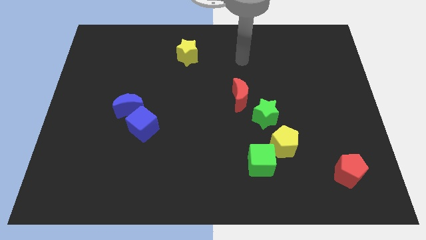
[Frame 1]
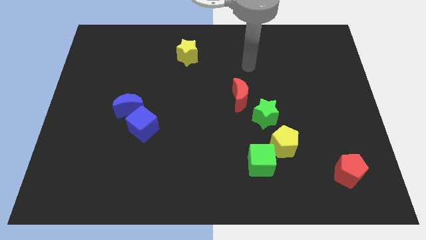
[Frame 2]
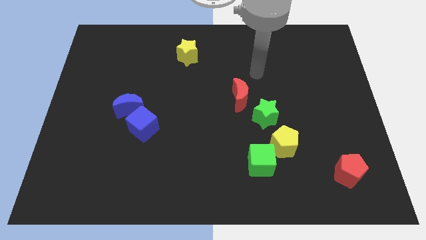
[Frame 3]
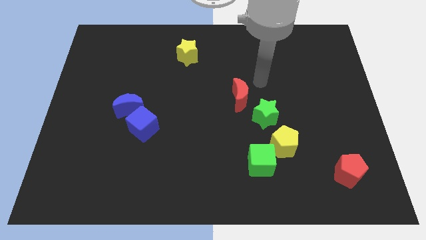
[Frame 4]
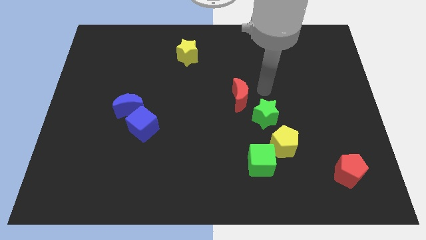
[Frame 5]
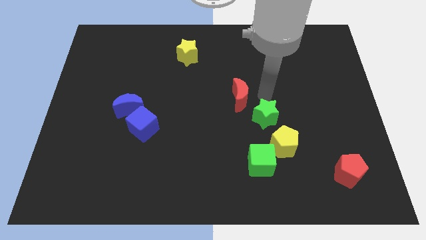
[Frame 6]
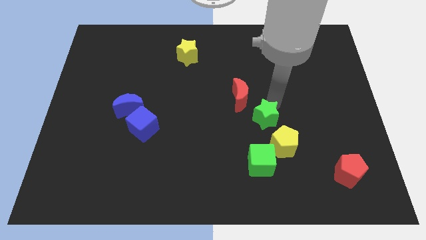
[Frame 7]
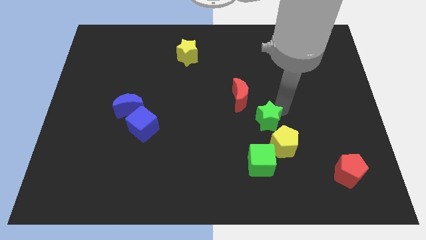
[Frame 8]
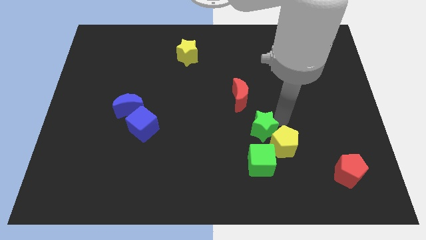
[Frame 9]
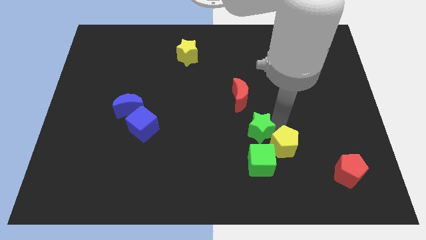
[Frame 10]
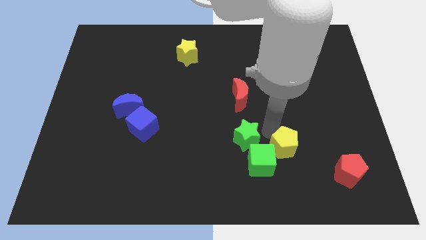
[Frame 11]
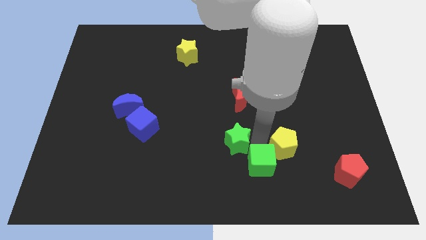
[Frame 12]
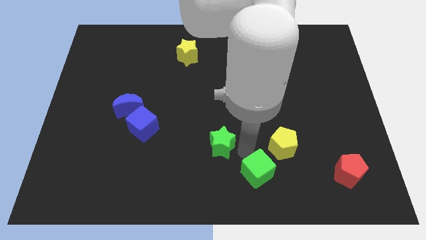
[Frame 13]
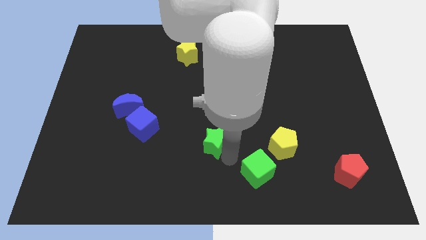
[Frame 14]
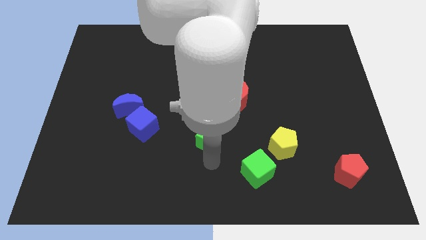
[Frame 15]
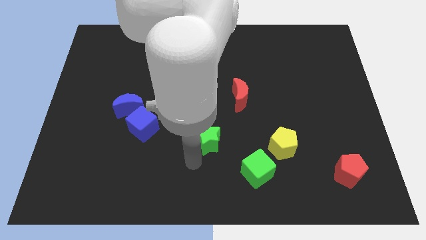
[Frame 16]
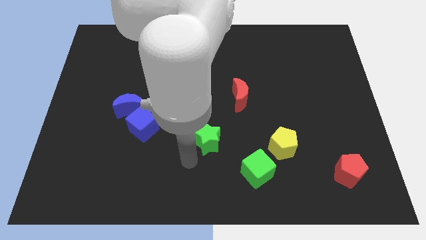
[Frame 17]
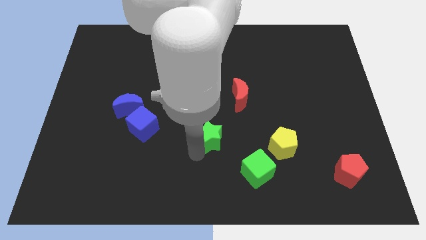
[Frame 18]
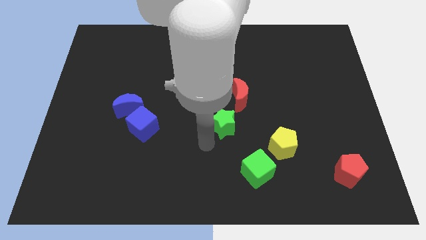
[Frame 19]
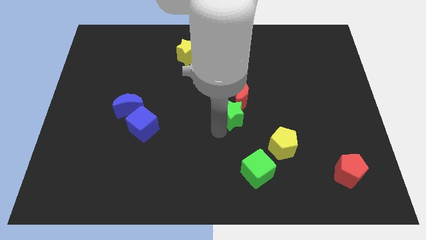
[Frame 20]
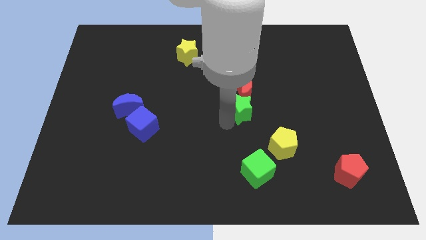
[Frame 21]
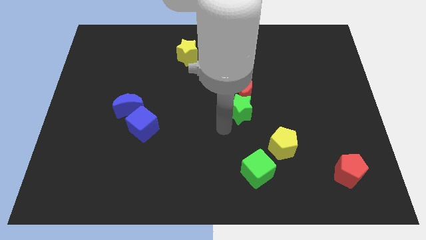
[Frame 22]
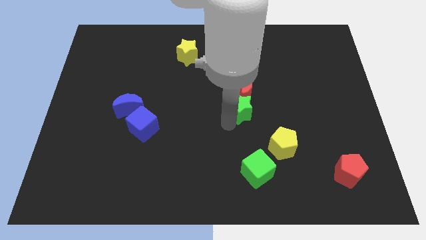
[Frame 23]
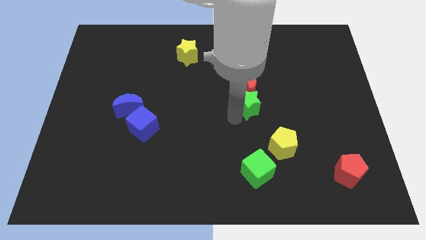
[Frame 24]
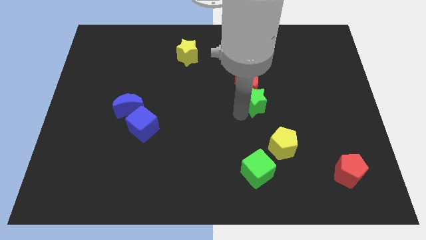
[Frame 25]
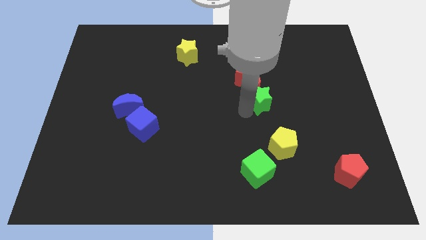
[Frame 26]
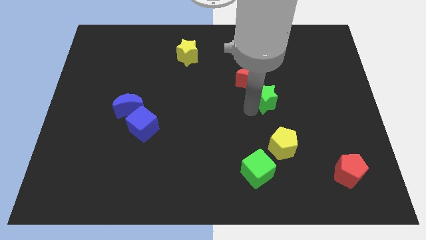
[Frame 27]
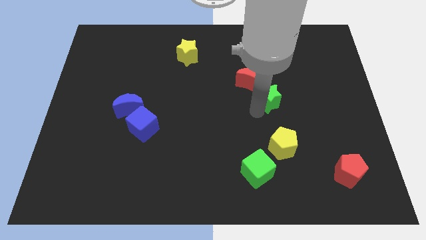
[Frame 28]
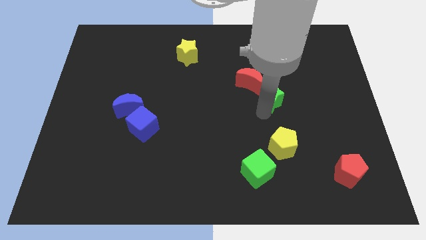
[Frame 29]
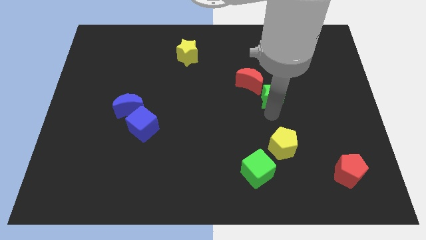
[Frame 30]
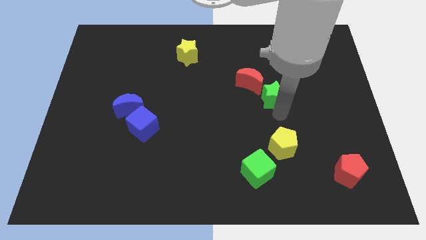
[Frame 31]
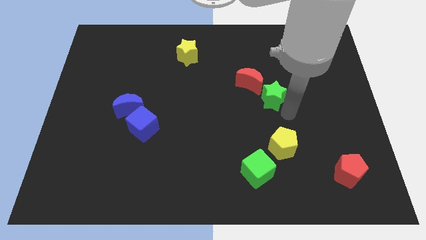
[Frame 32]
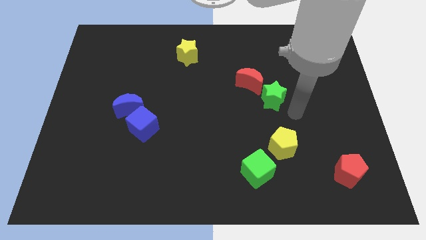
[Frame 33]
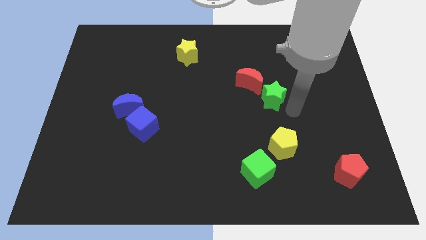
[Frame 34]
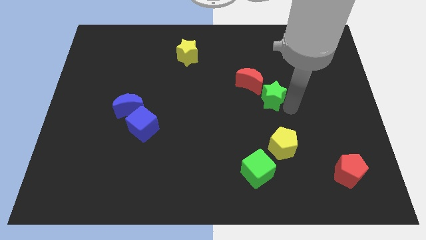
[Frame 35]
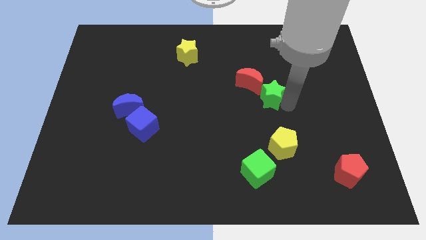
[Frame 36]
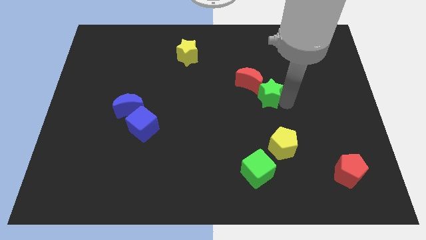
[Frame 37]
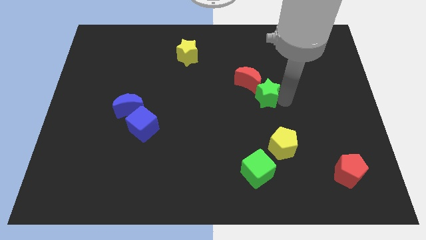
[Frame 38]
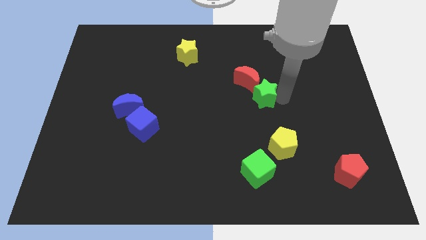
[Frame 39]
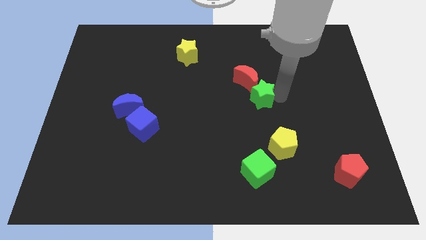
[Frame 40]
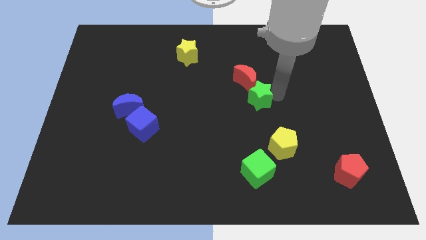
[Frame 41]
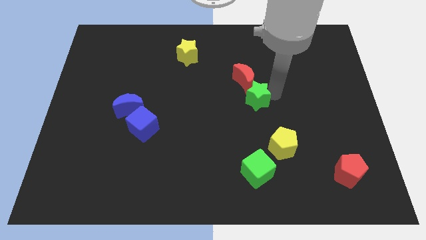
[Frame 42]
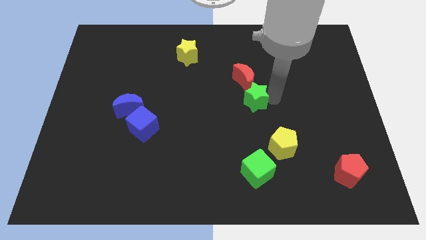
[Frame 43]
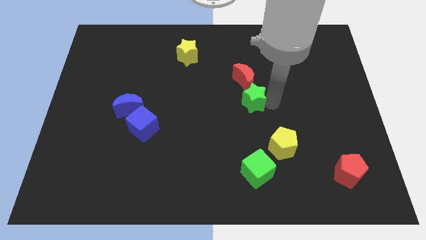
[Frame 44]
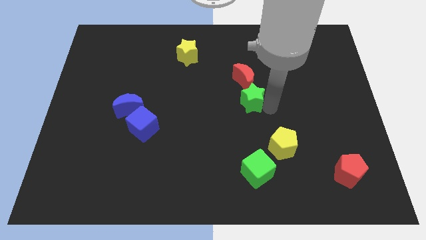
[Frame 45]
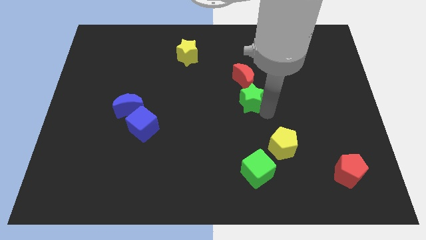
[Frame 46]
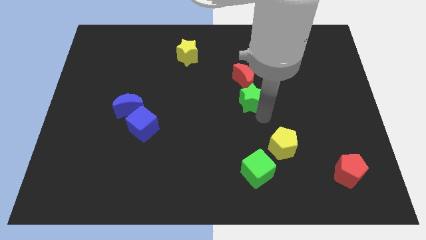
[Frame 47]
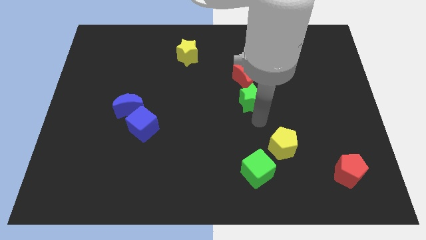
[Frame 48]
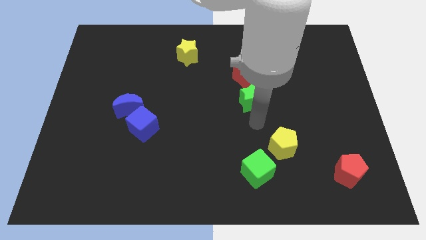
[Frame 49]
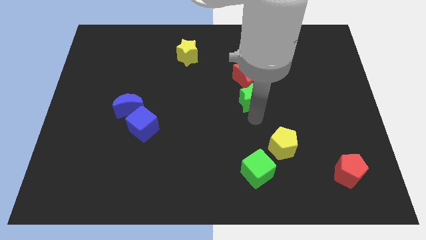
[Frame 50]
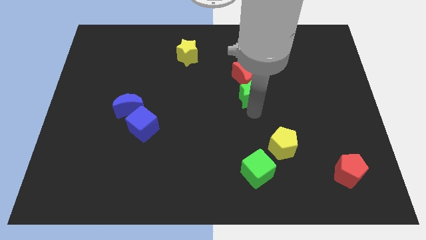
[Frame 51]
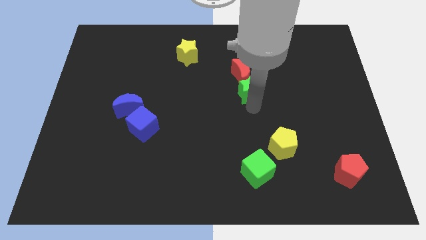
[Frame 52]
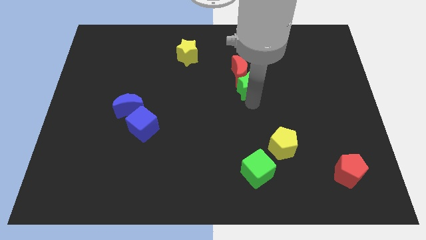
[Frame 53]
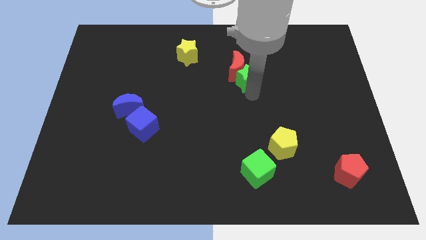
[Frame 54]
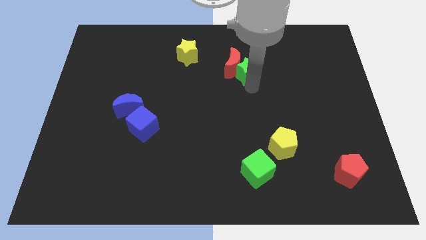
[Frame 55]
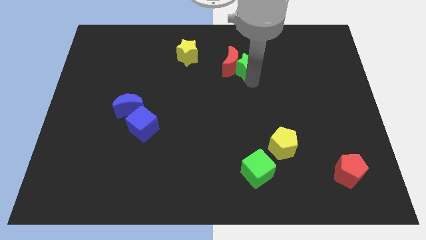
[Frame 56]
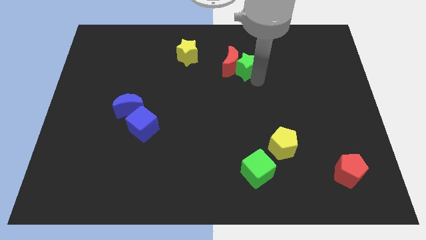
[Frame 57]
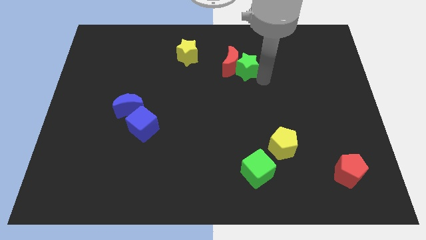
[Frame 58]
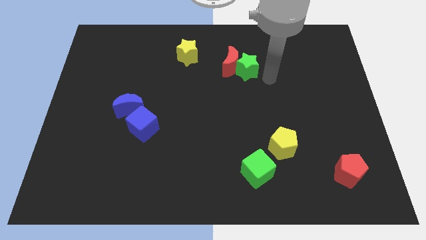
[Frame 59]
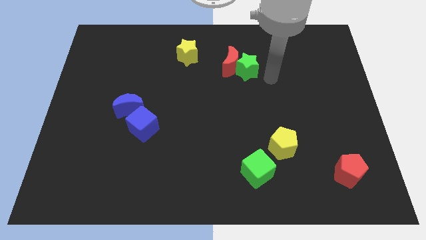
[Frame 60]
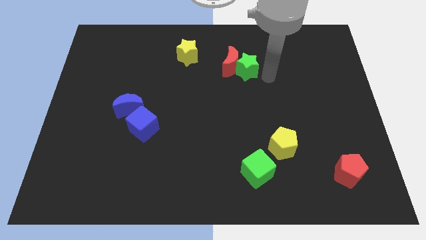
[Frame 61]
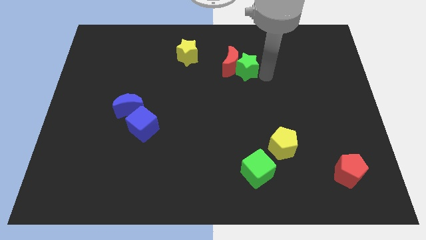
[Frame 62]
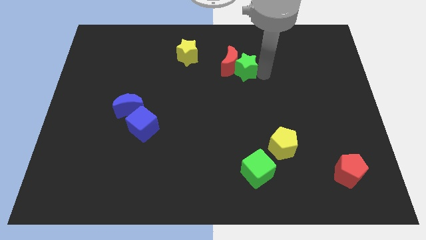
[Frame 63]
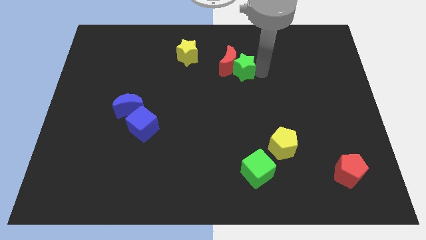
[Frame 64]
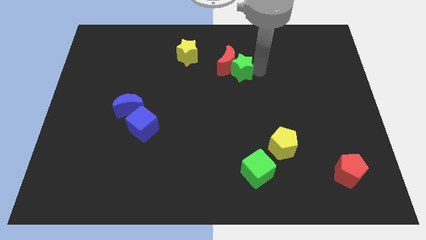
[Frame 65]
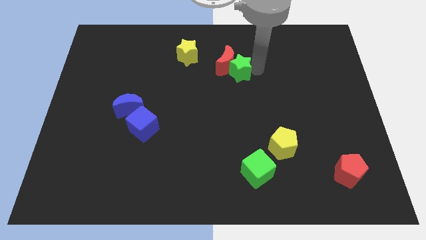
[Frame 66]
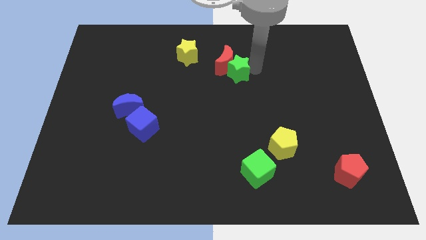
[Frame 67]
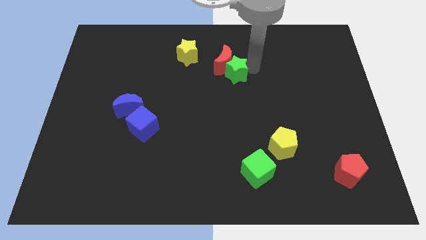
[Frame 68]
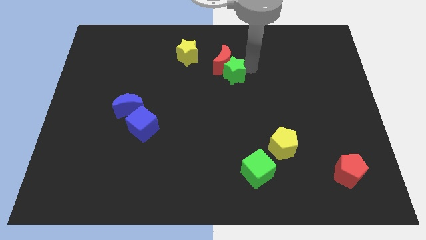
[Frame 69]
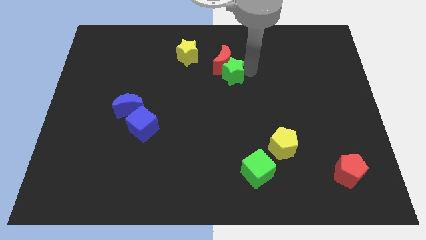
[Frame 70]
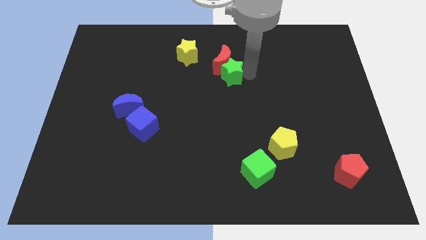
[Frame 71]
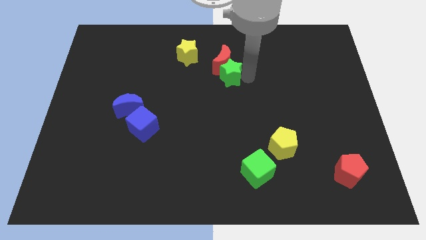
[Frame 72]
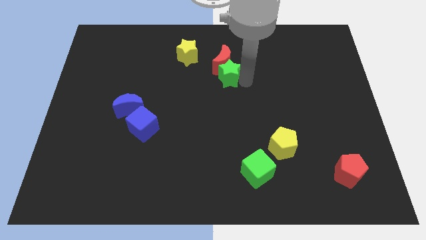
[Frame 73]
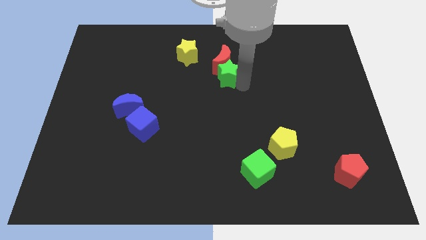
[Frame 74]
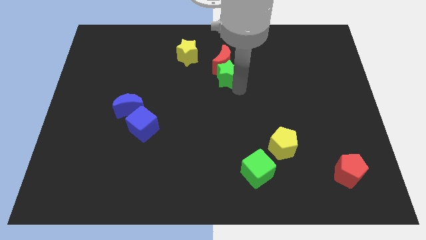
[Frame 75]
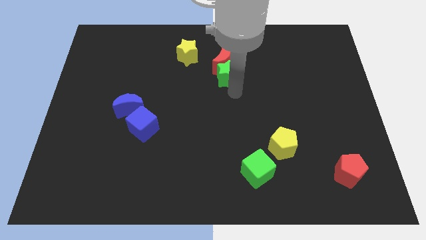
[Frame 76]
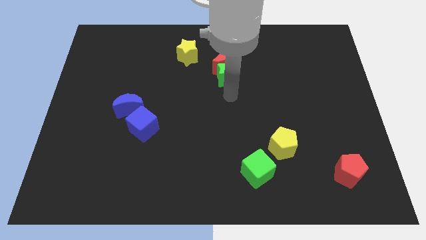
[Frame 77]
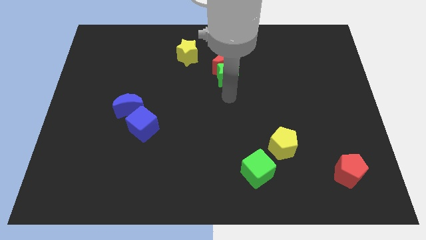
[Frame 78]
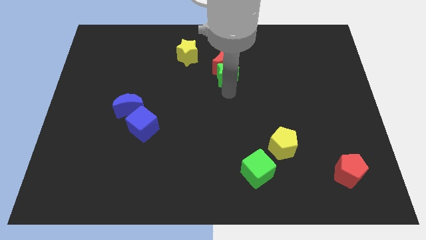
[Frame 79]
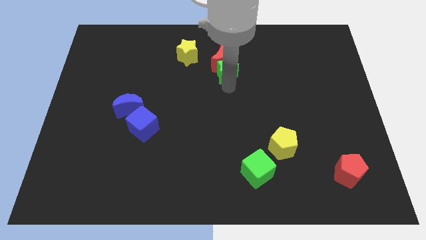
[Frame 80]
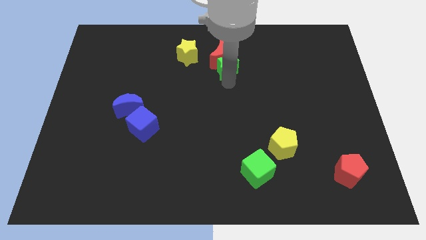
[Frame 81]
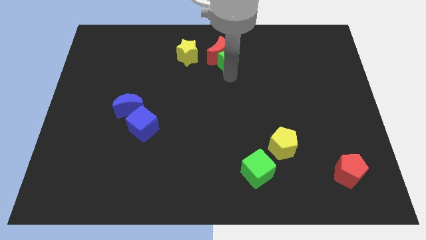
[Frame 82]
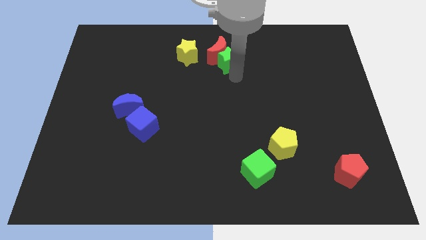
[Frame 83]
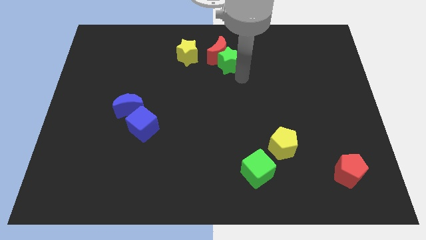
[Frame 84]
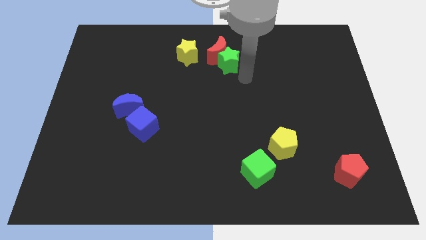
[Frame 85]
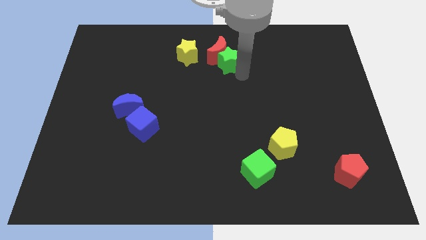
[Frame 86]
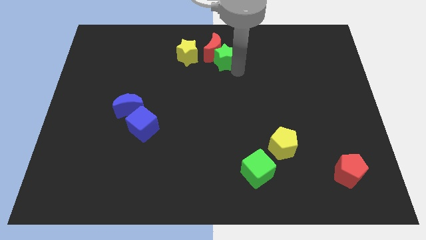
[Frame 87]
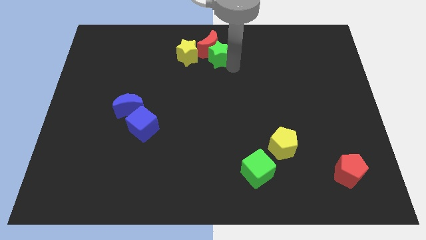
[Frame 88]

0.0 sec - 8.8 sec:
move the green star to the top
